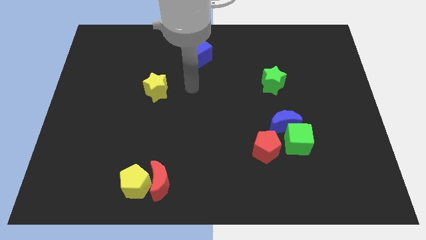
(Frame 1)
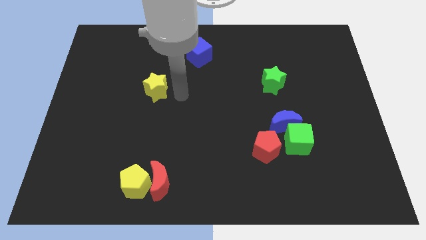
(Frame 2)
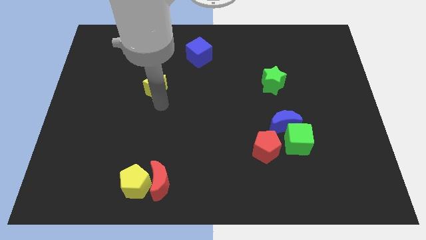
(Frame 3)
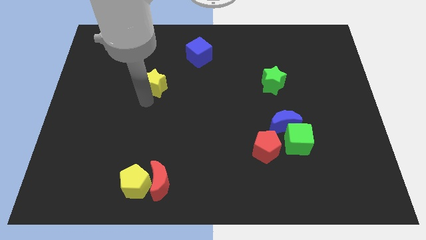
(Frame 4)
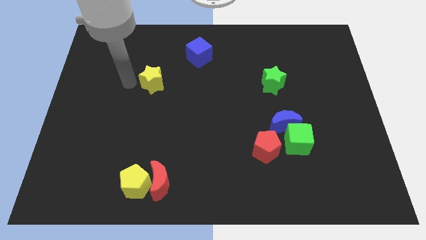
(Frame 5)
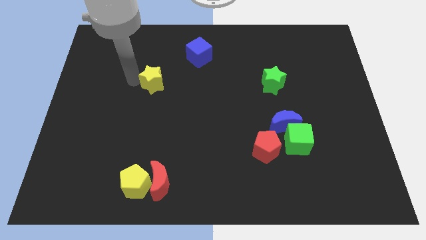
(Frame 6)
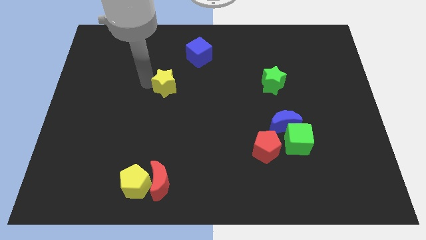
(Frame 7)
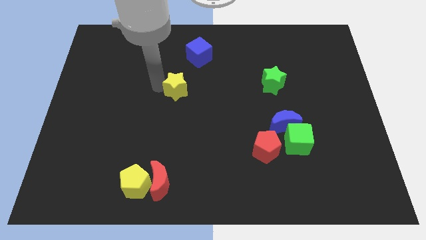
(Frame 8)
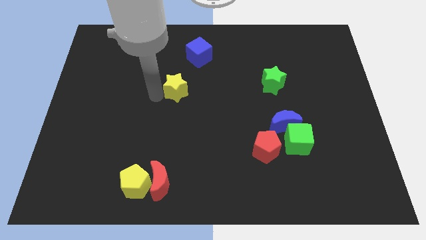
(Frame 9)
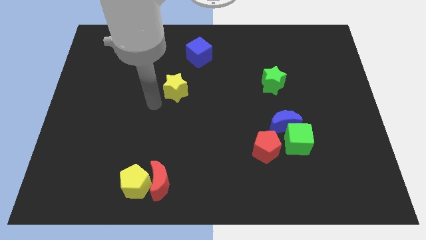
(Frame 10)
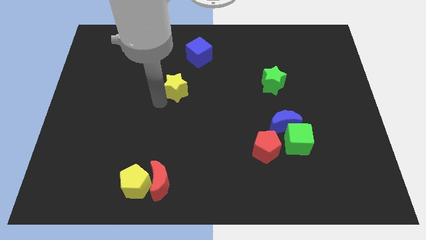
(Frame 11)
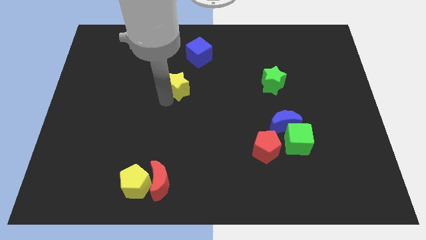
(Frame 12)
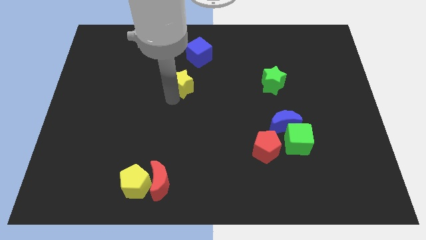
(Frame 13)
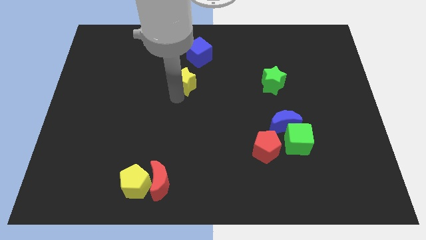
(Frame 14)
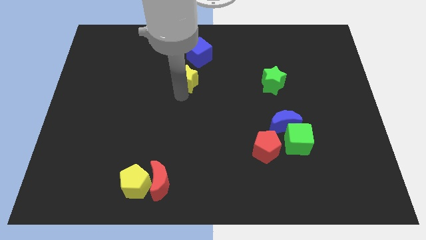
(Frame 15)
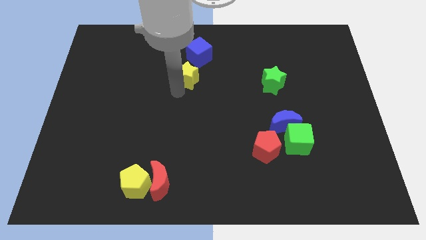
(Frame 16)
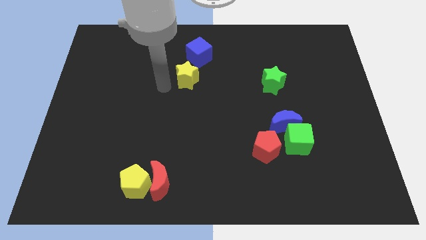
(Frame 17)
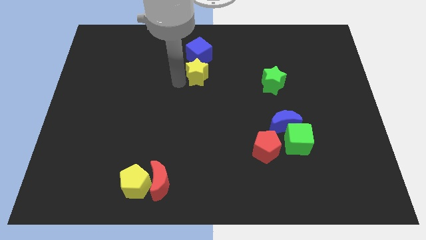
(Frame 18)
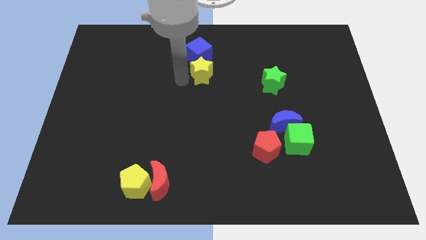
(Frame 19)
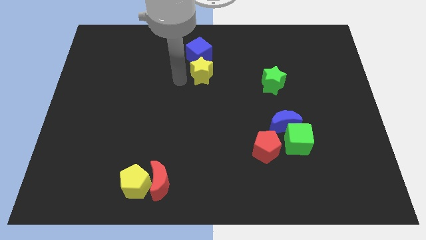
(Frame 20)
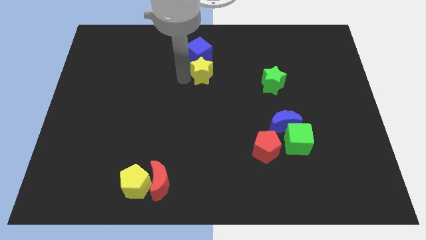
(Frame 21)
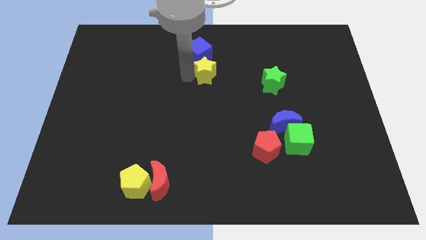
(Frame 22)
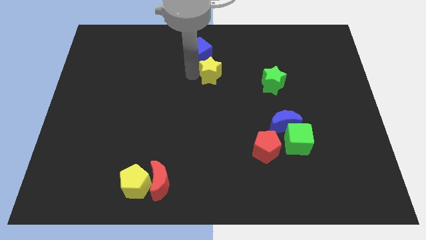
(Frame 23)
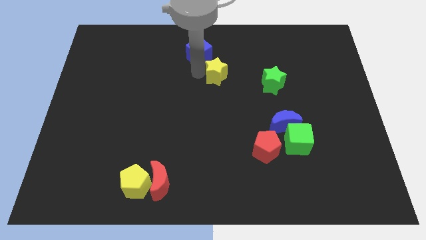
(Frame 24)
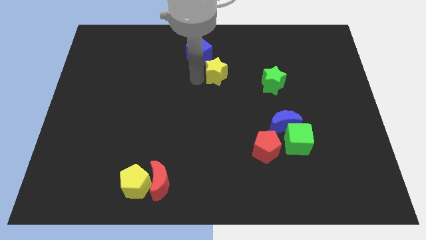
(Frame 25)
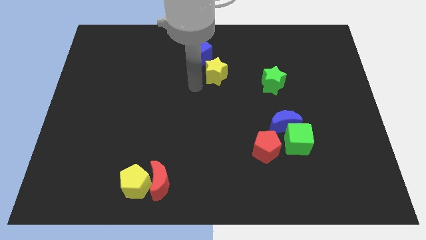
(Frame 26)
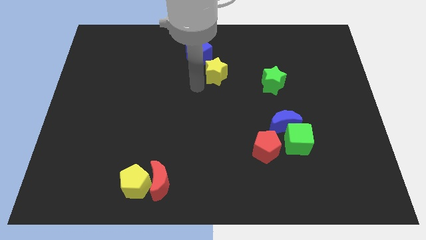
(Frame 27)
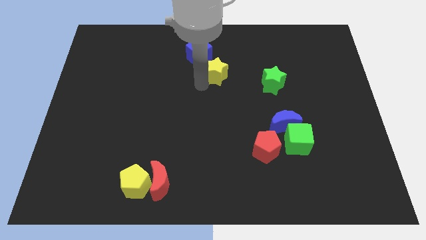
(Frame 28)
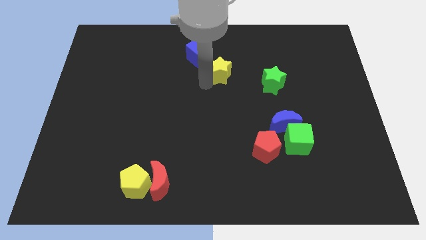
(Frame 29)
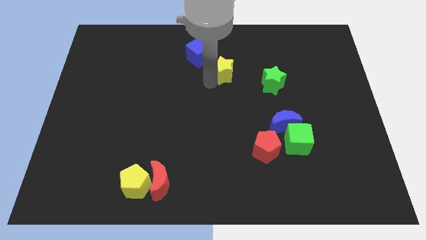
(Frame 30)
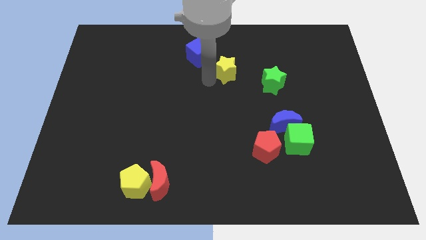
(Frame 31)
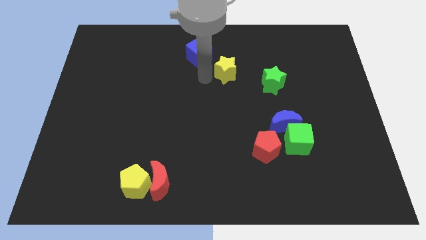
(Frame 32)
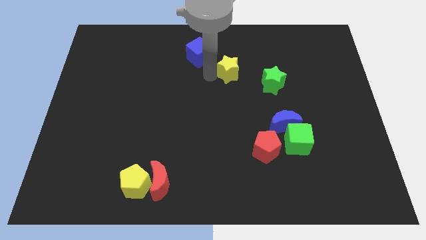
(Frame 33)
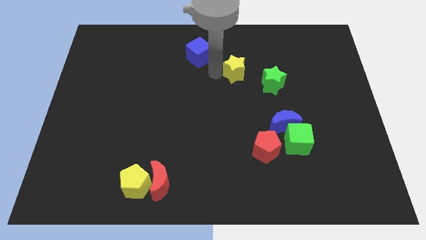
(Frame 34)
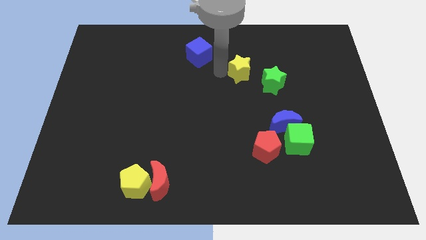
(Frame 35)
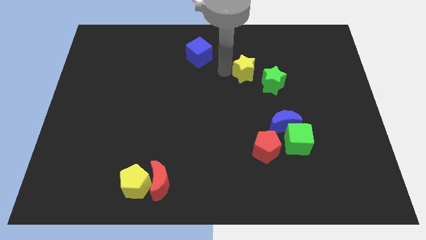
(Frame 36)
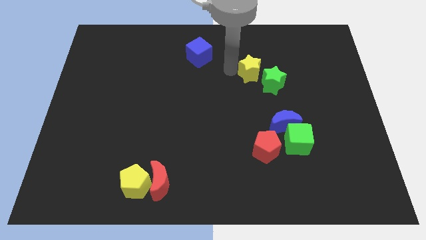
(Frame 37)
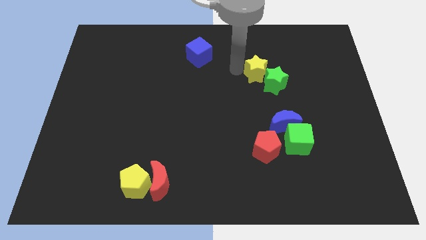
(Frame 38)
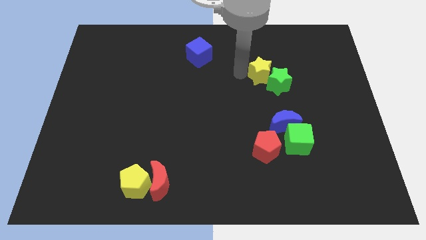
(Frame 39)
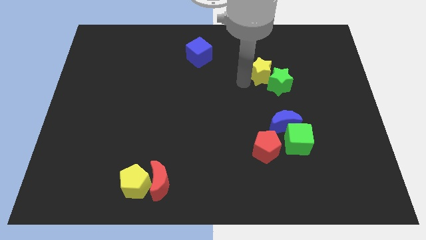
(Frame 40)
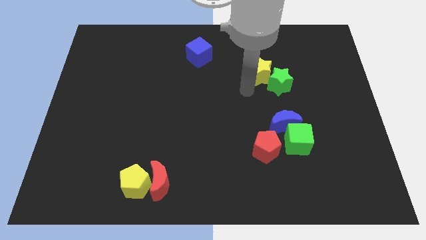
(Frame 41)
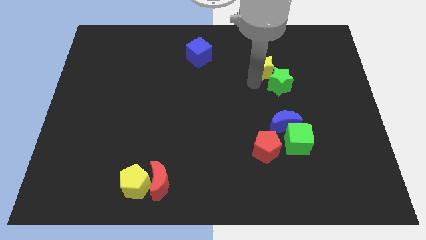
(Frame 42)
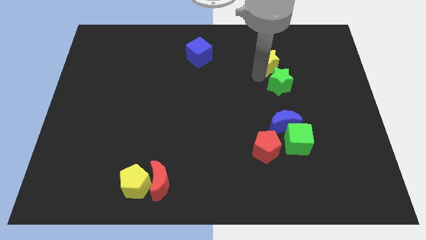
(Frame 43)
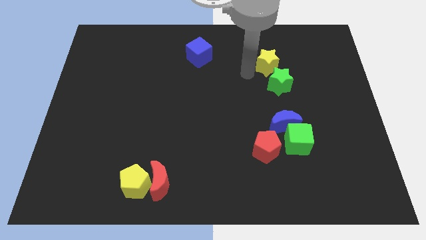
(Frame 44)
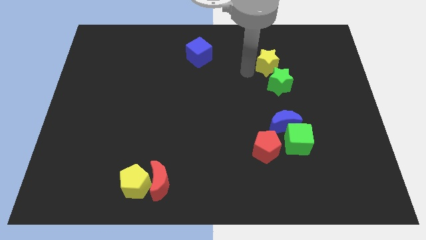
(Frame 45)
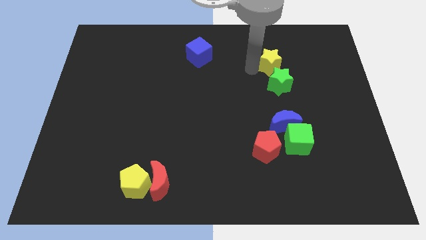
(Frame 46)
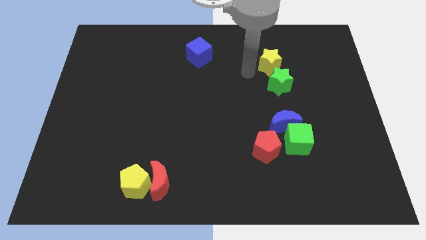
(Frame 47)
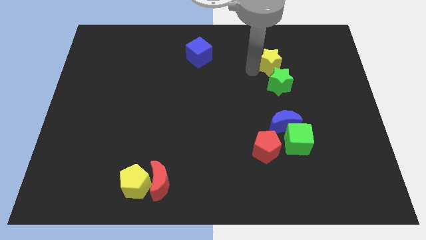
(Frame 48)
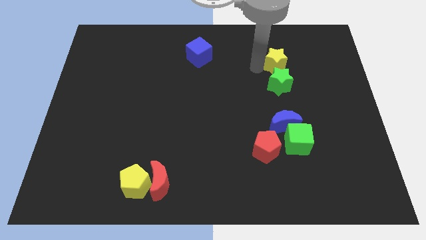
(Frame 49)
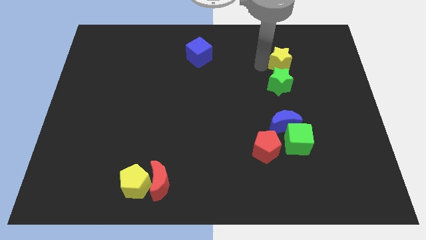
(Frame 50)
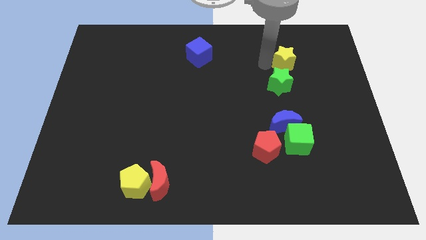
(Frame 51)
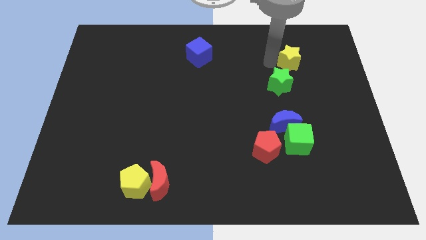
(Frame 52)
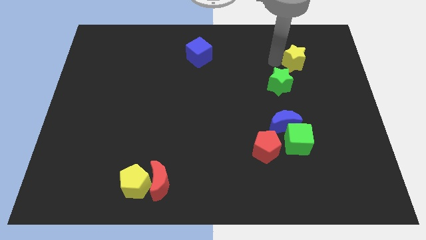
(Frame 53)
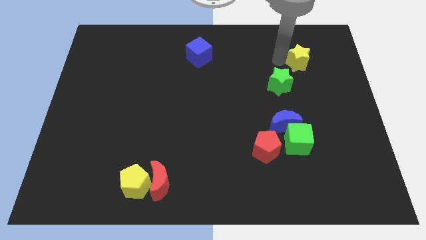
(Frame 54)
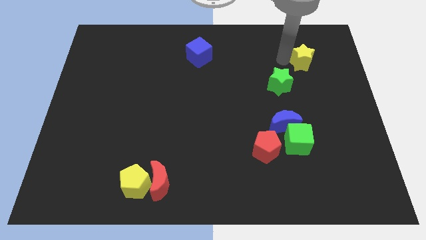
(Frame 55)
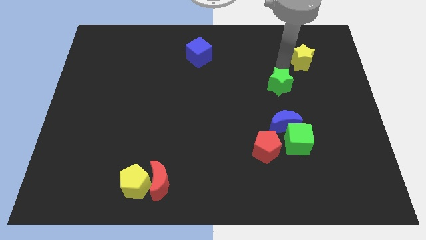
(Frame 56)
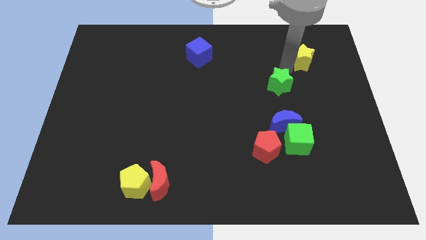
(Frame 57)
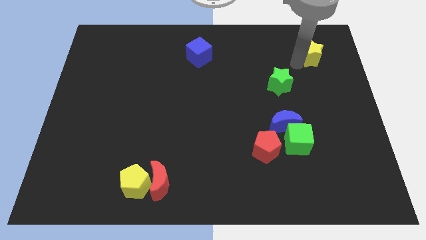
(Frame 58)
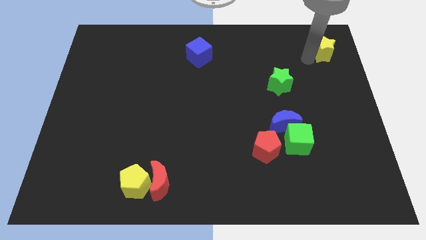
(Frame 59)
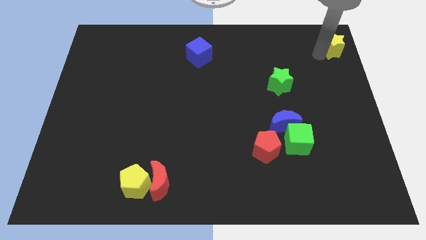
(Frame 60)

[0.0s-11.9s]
slide the yellow star to the top right

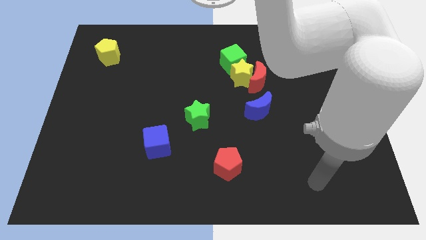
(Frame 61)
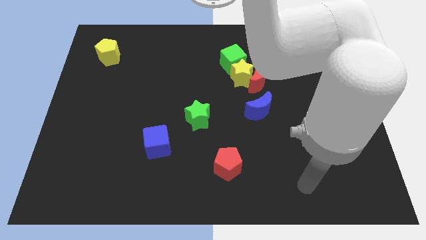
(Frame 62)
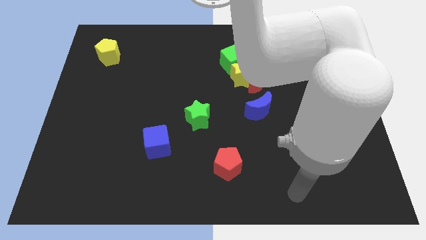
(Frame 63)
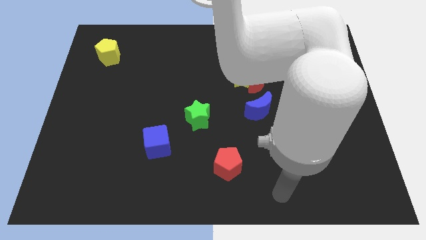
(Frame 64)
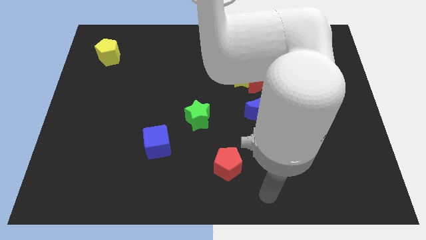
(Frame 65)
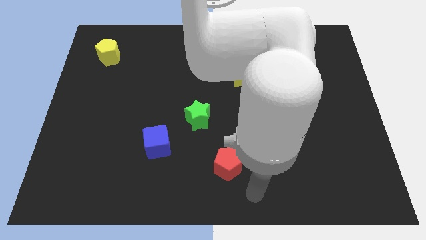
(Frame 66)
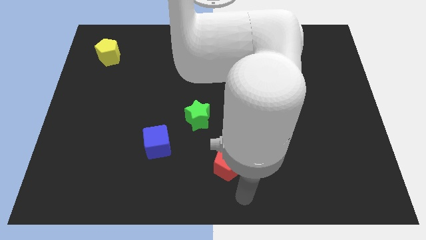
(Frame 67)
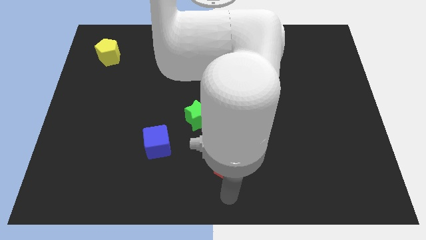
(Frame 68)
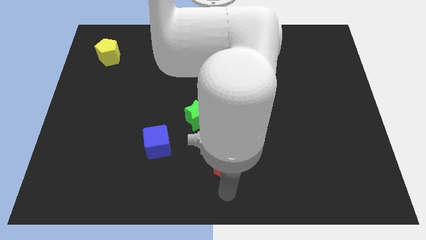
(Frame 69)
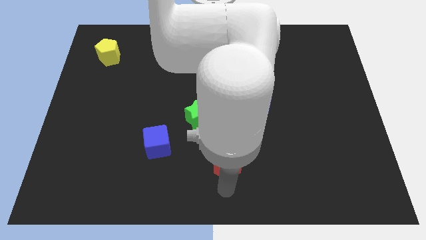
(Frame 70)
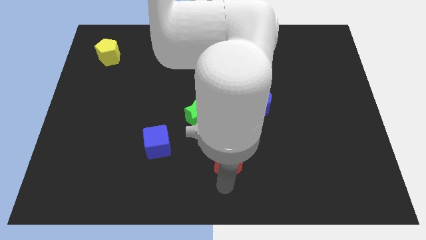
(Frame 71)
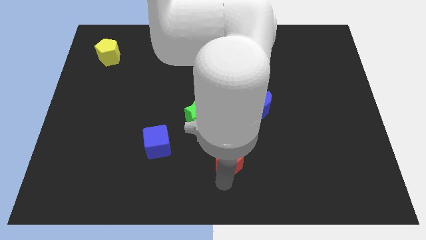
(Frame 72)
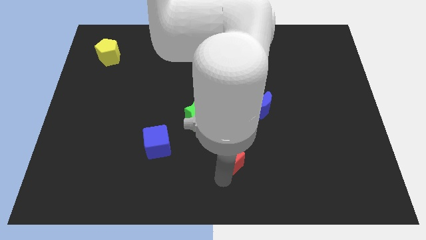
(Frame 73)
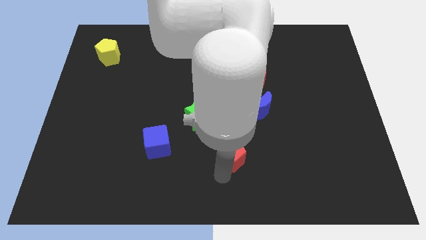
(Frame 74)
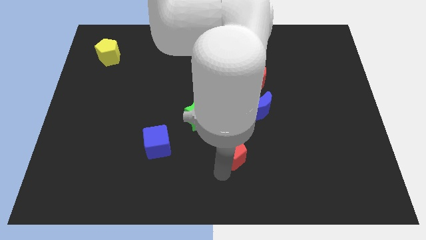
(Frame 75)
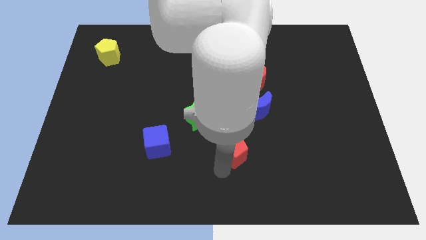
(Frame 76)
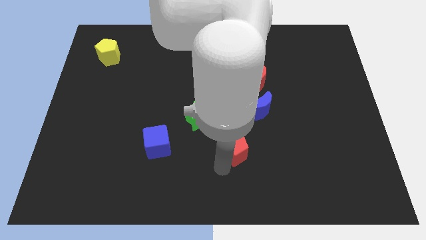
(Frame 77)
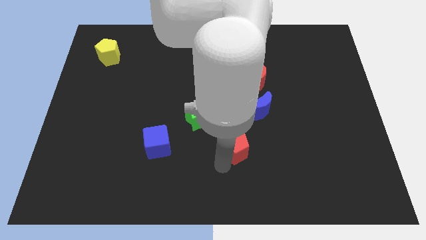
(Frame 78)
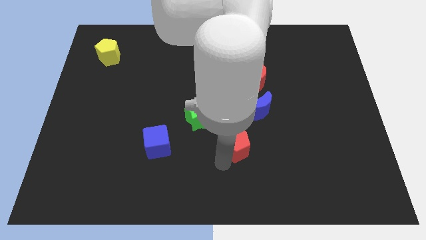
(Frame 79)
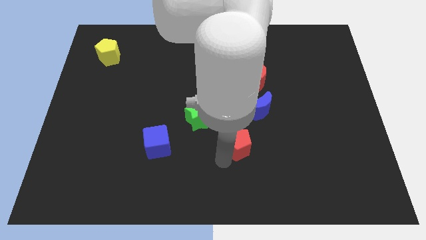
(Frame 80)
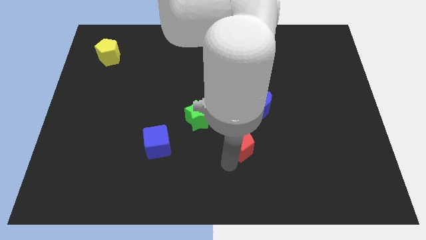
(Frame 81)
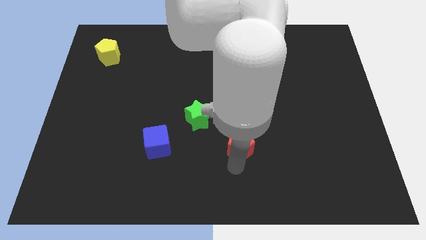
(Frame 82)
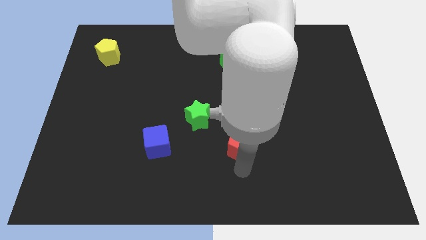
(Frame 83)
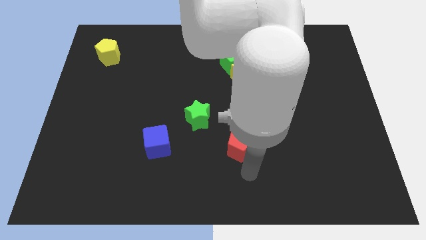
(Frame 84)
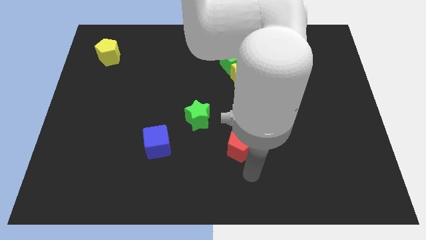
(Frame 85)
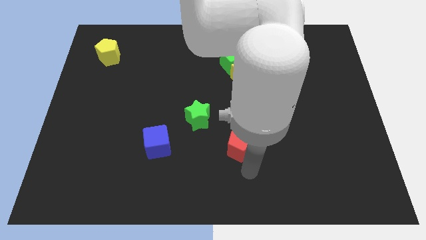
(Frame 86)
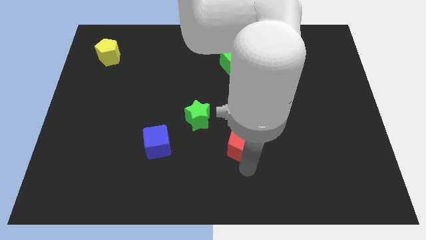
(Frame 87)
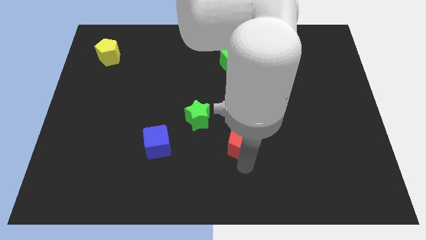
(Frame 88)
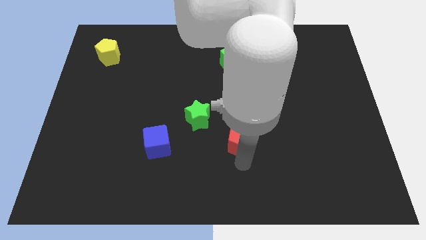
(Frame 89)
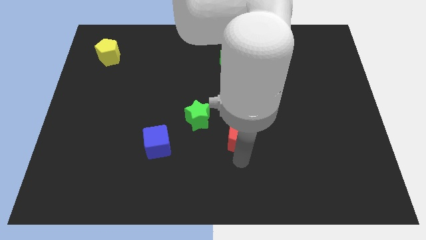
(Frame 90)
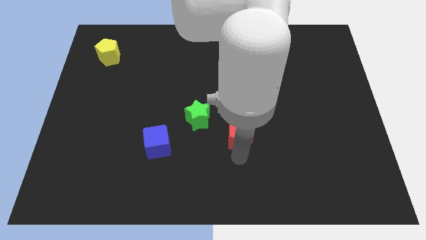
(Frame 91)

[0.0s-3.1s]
put the red pentagon to the middle
